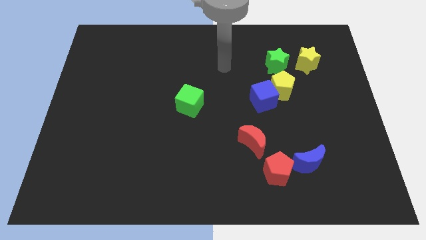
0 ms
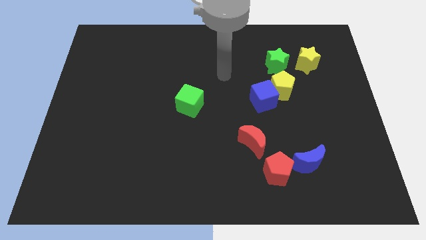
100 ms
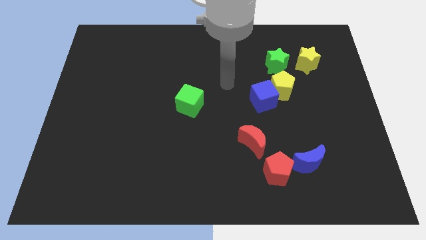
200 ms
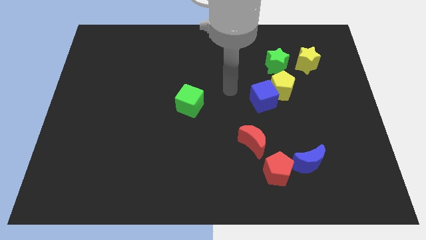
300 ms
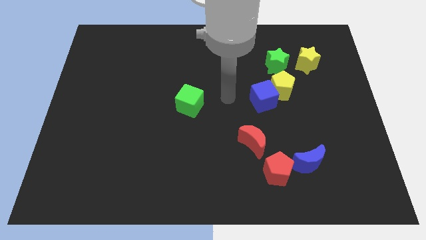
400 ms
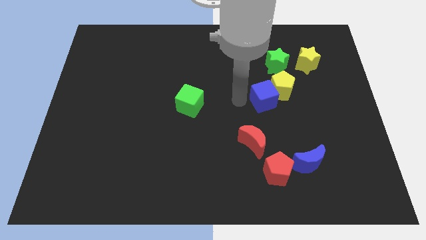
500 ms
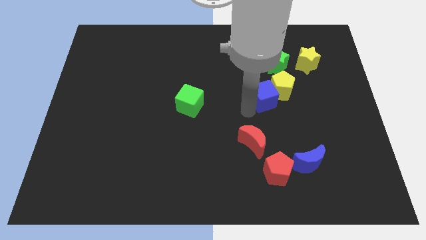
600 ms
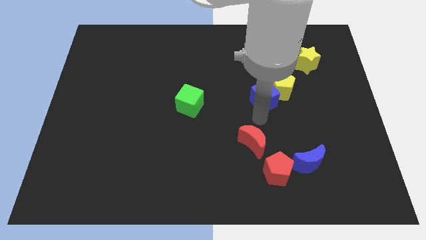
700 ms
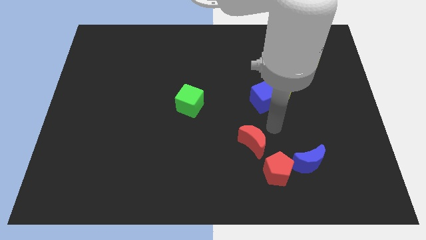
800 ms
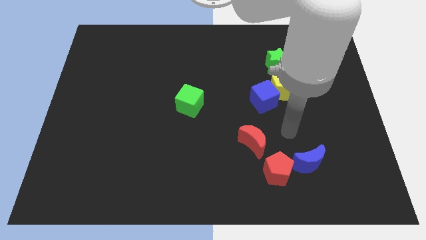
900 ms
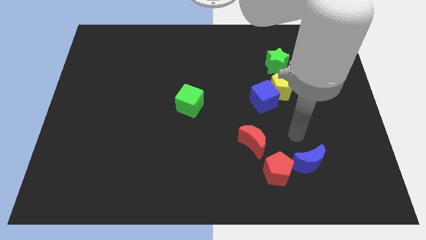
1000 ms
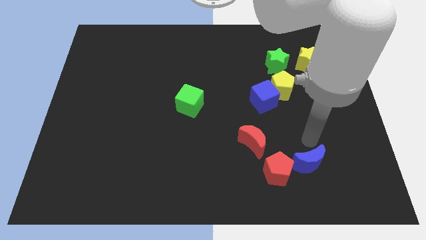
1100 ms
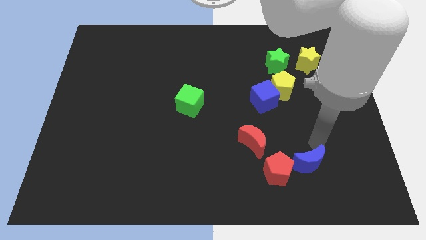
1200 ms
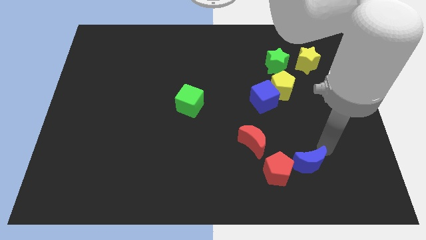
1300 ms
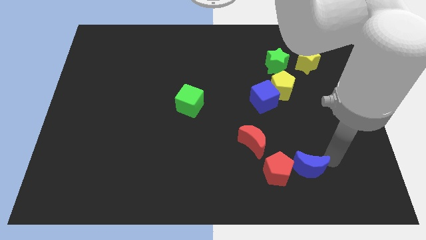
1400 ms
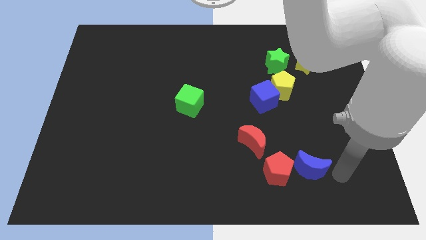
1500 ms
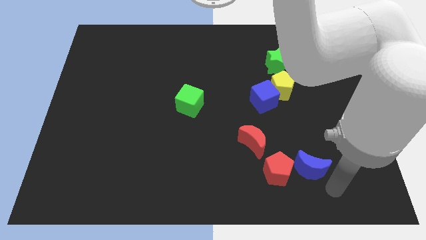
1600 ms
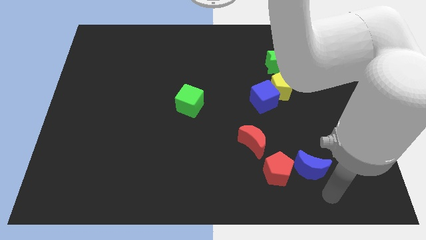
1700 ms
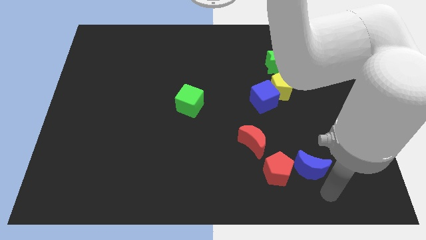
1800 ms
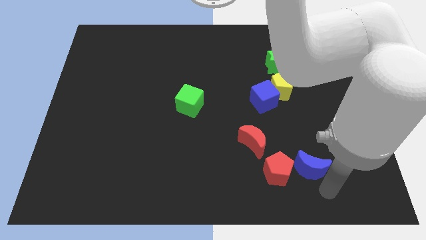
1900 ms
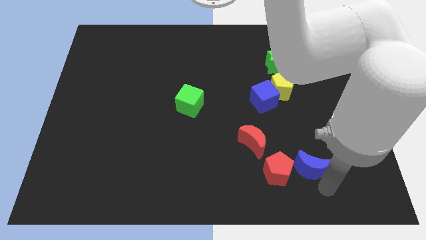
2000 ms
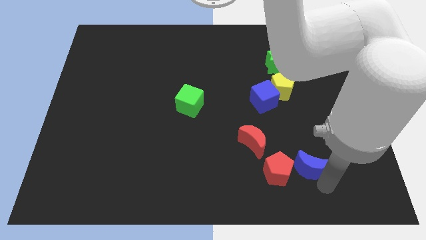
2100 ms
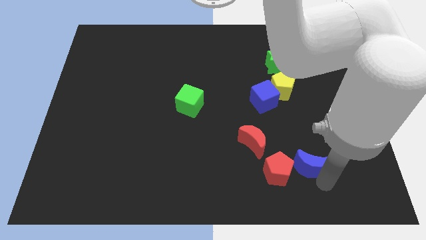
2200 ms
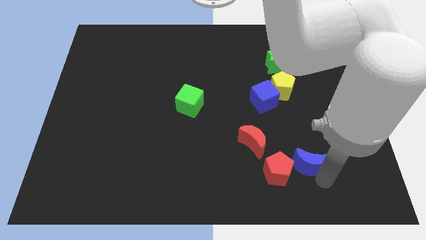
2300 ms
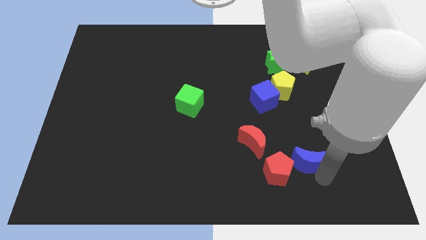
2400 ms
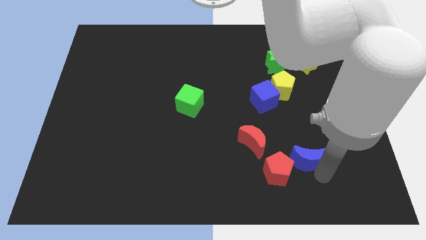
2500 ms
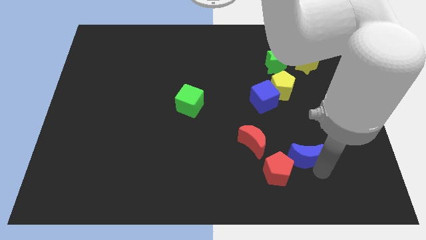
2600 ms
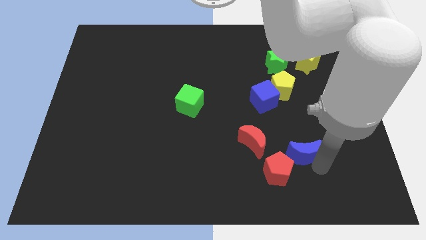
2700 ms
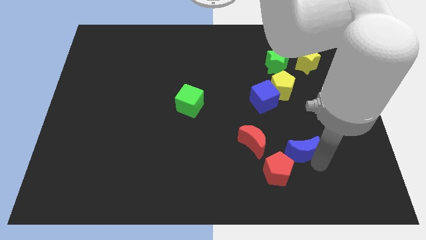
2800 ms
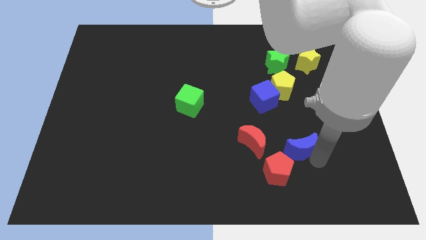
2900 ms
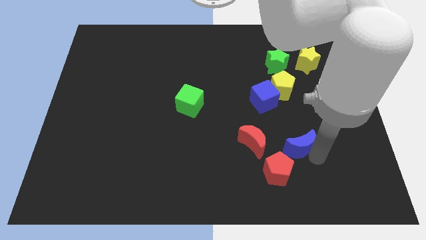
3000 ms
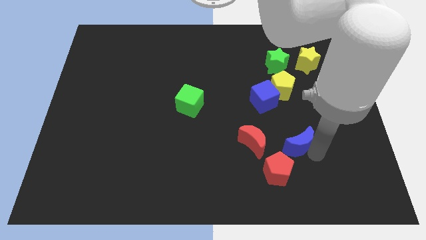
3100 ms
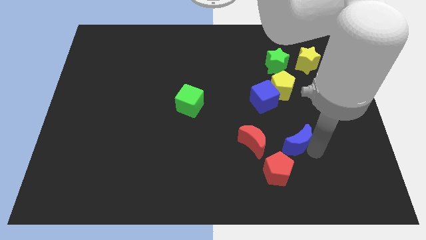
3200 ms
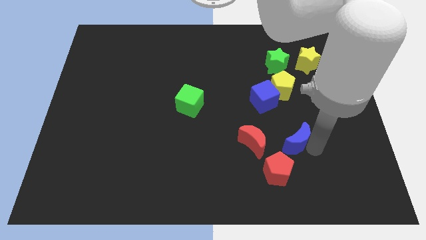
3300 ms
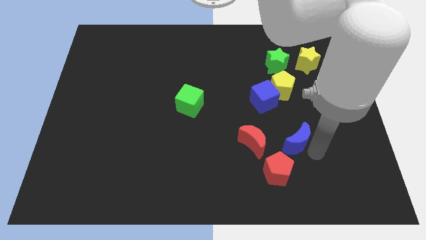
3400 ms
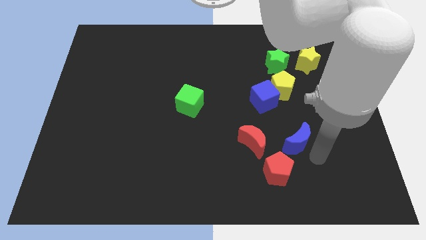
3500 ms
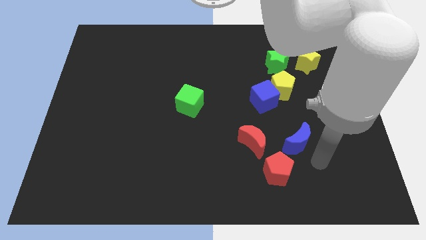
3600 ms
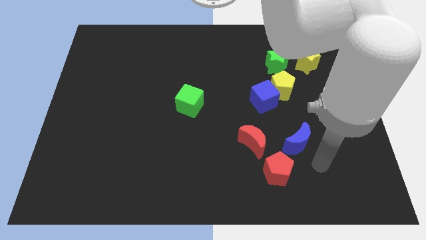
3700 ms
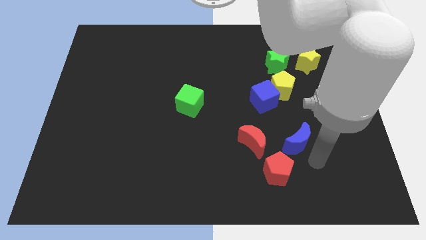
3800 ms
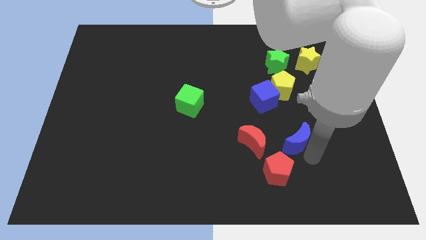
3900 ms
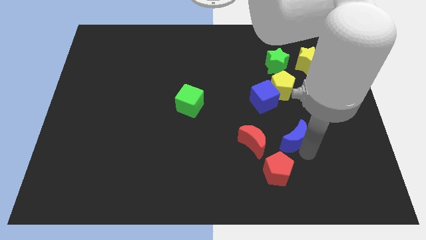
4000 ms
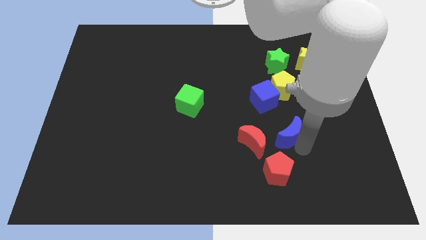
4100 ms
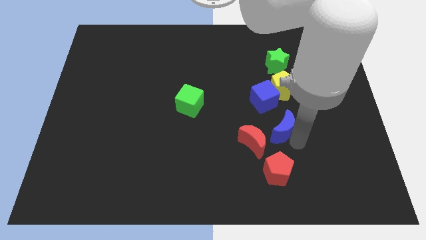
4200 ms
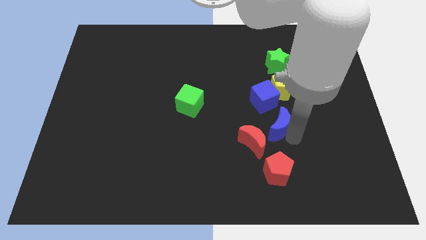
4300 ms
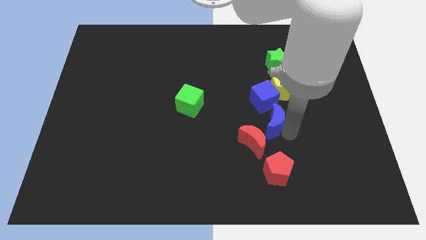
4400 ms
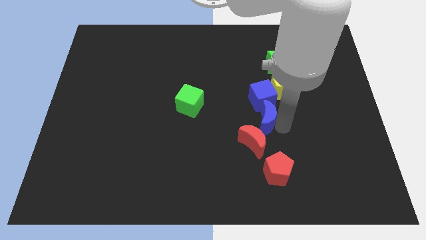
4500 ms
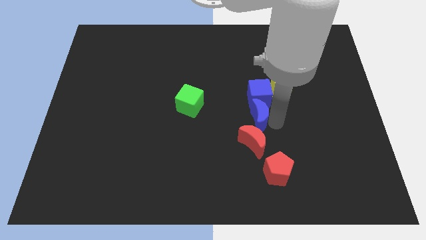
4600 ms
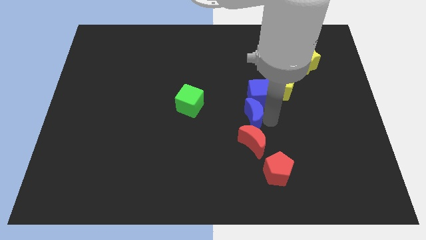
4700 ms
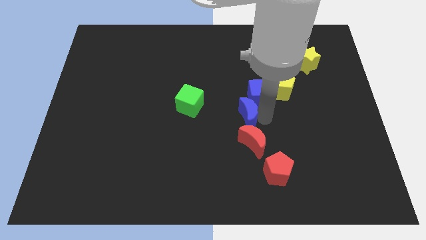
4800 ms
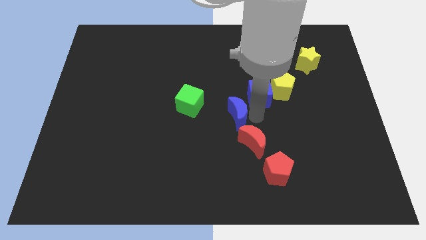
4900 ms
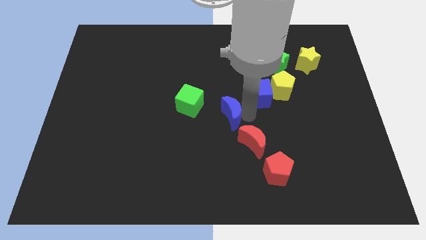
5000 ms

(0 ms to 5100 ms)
put the blue moon to the bottom right of the green cube

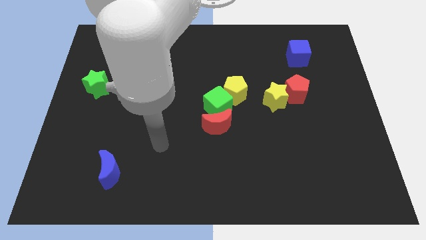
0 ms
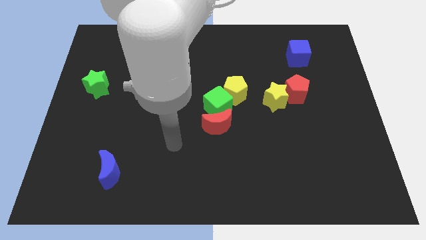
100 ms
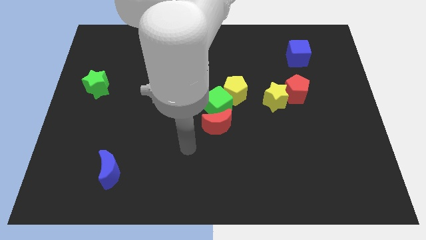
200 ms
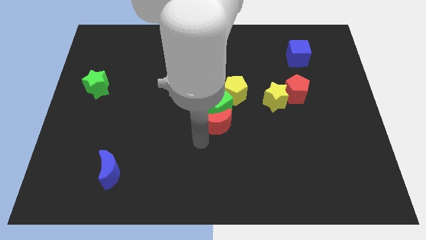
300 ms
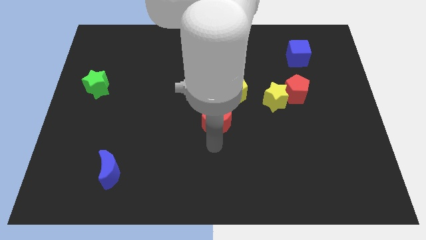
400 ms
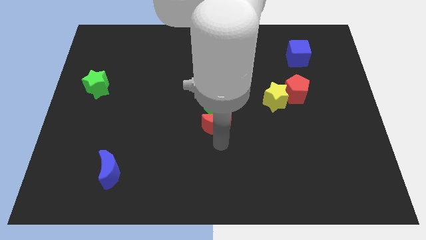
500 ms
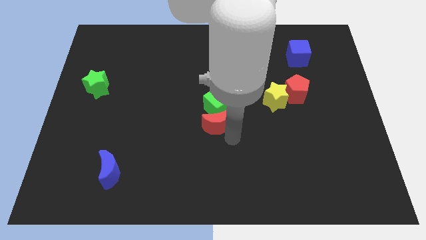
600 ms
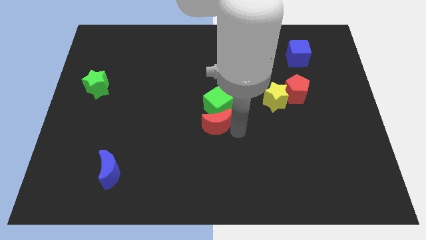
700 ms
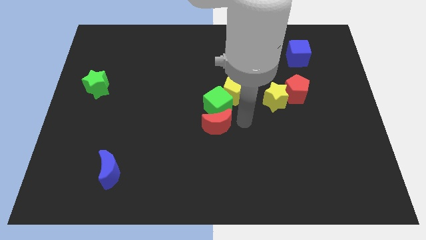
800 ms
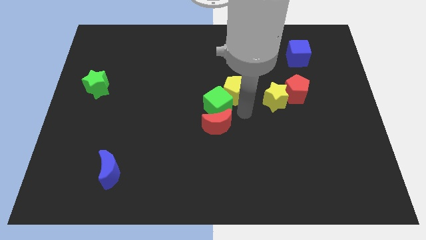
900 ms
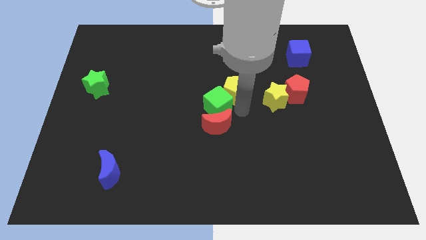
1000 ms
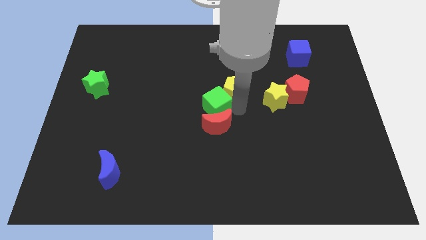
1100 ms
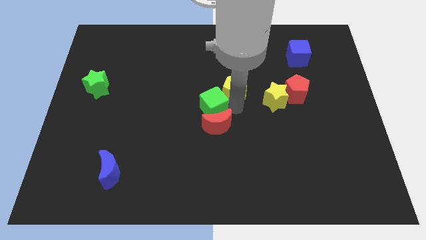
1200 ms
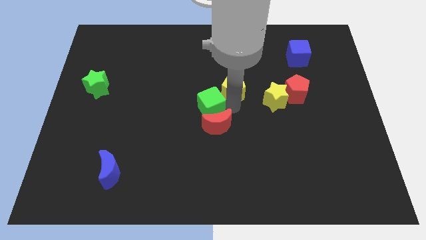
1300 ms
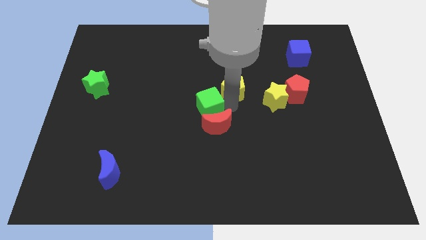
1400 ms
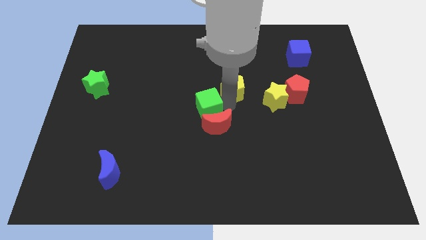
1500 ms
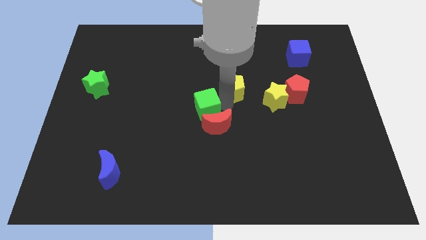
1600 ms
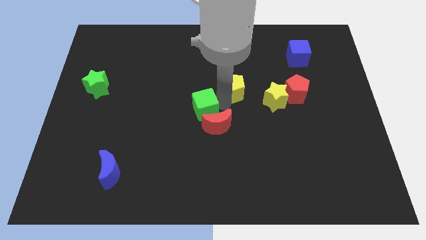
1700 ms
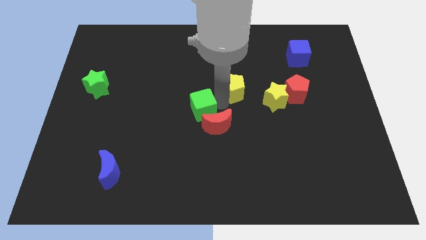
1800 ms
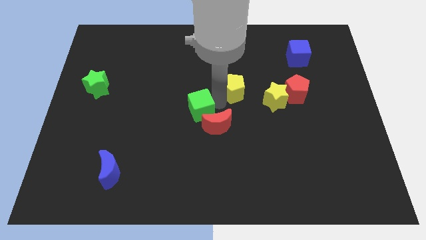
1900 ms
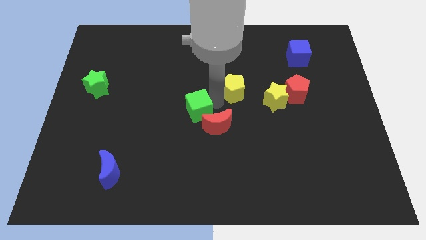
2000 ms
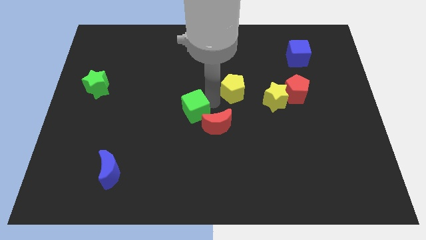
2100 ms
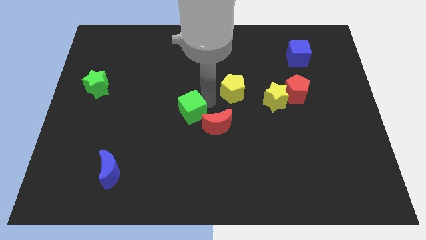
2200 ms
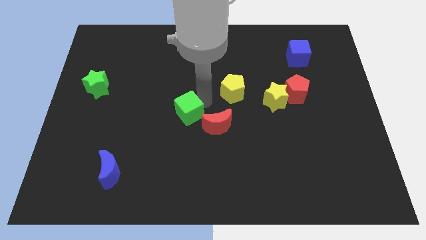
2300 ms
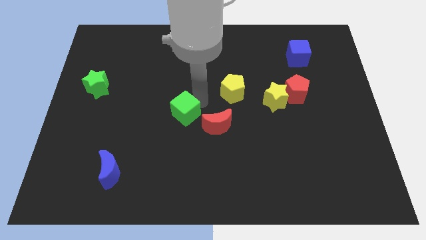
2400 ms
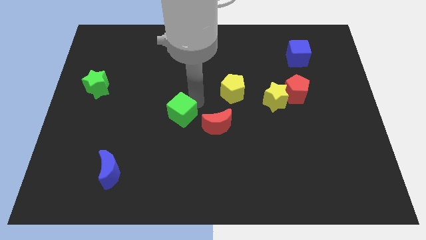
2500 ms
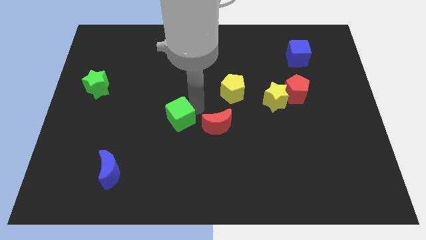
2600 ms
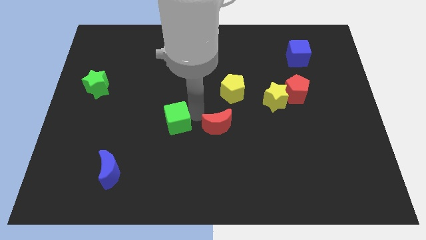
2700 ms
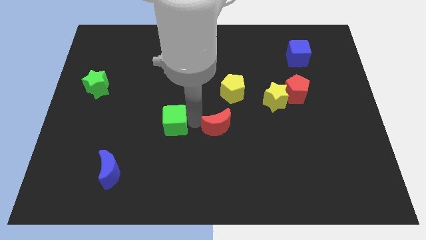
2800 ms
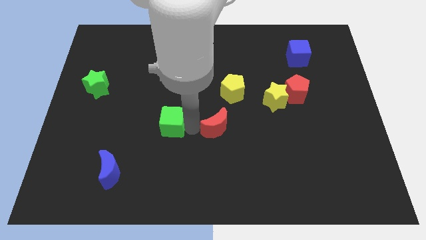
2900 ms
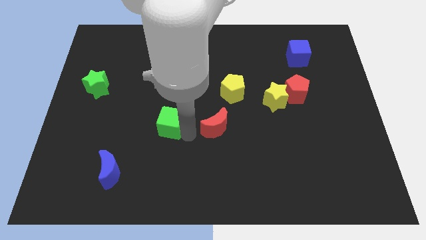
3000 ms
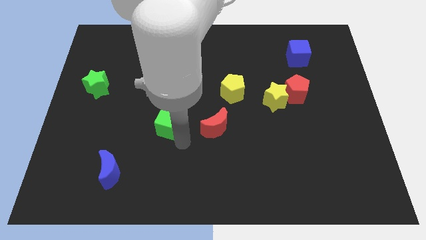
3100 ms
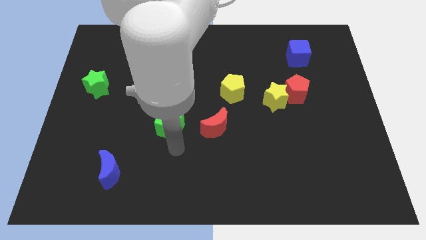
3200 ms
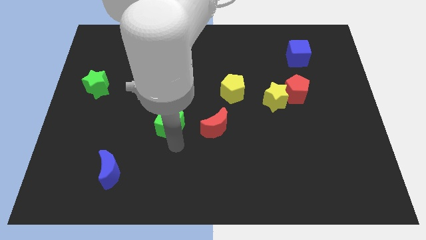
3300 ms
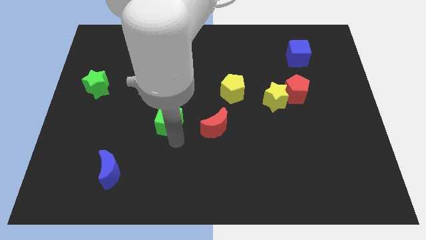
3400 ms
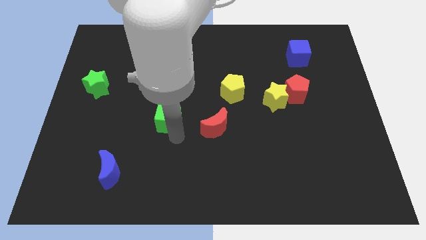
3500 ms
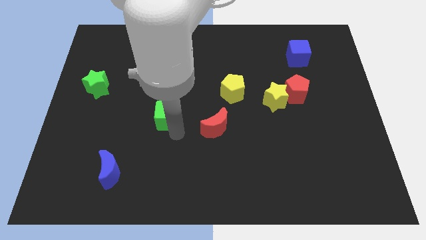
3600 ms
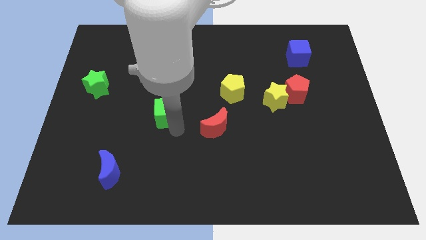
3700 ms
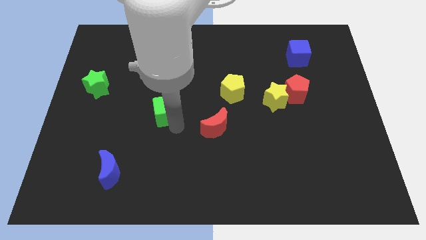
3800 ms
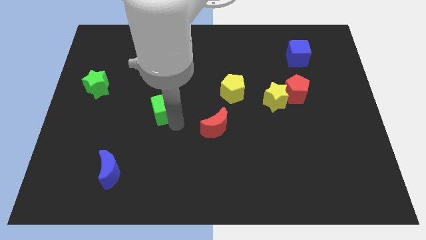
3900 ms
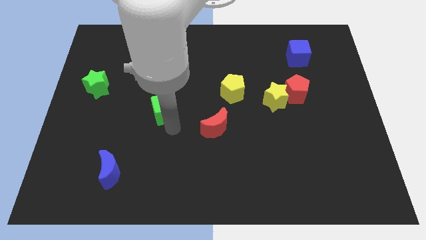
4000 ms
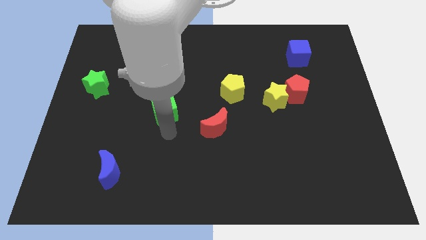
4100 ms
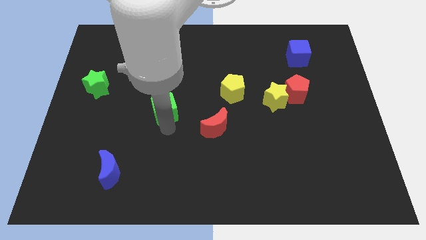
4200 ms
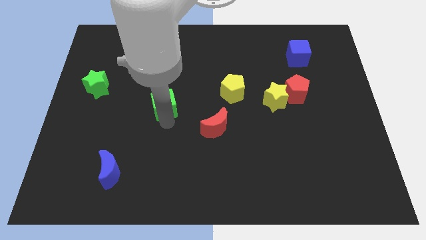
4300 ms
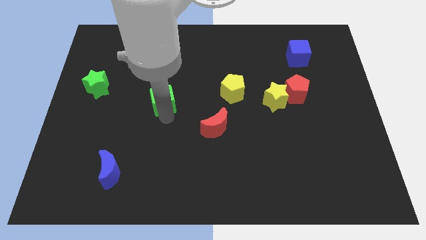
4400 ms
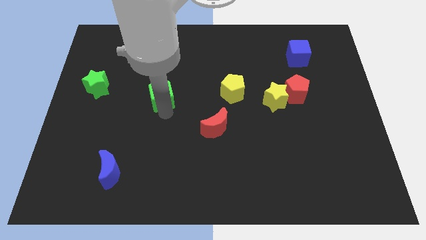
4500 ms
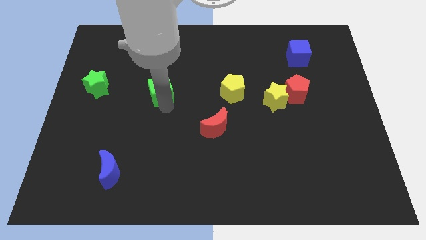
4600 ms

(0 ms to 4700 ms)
slide the green cube right of the green star
